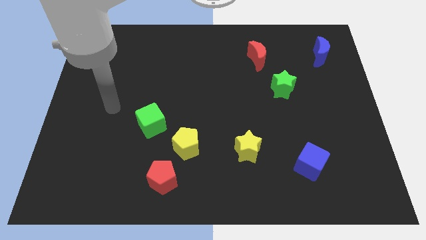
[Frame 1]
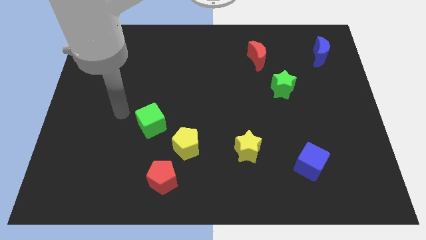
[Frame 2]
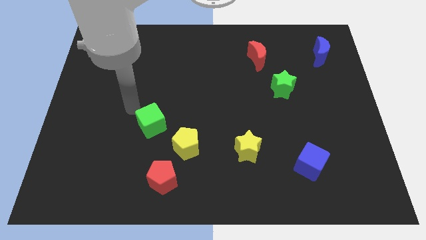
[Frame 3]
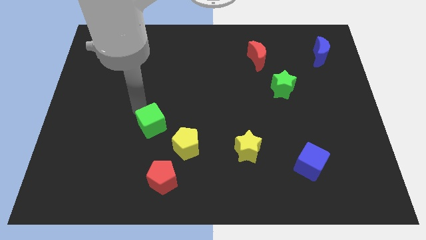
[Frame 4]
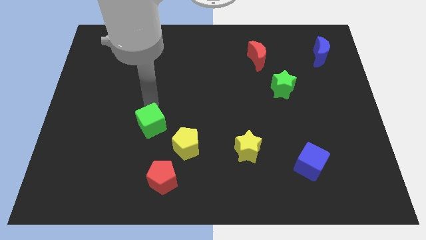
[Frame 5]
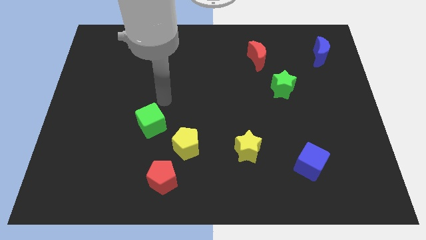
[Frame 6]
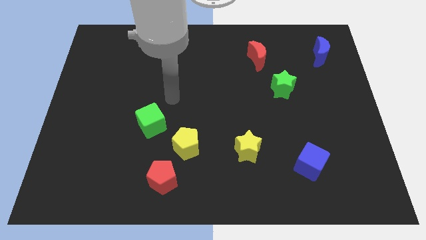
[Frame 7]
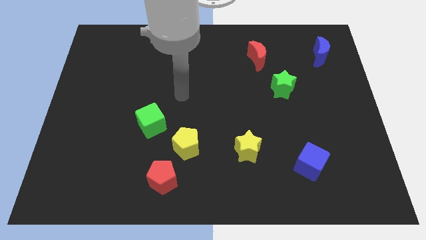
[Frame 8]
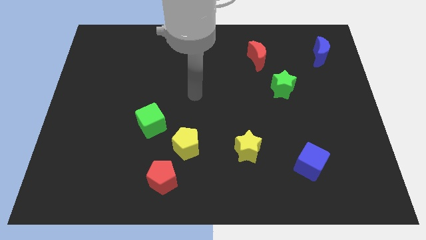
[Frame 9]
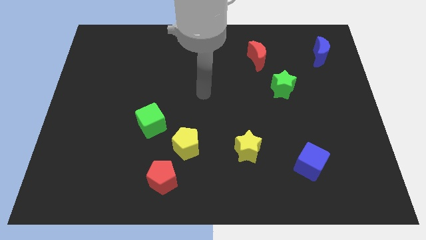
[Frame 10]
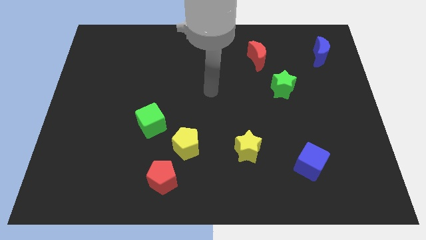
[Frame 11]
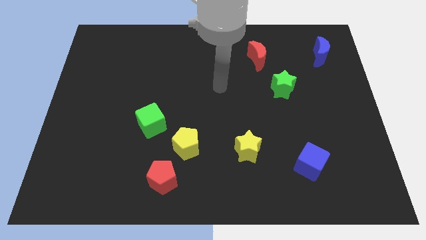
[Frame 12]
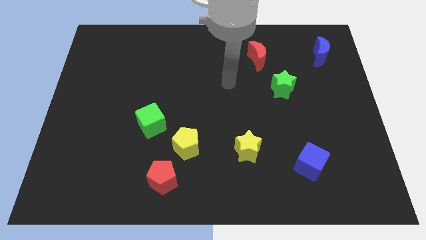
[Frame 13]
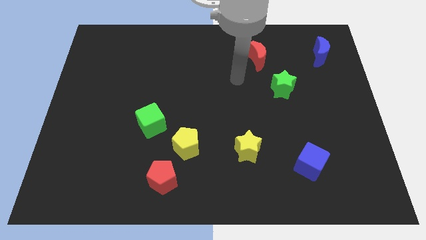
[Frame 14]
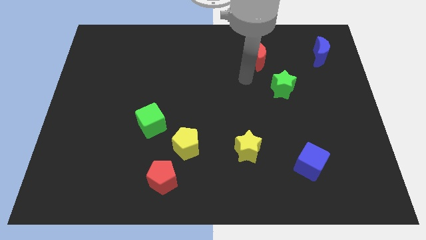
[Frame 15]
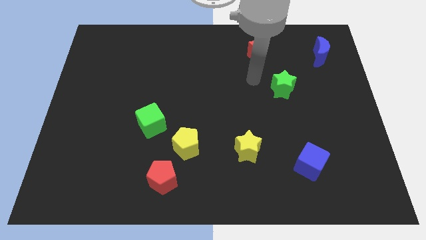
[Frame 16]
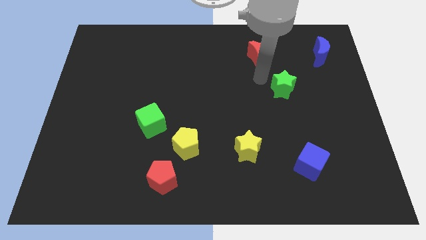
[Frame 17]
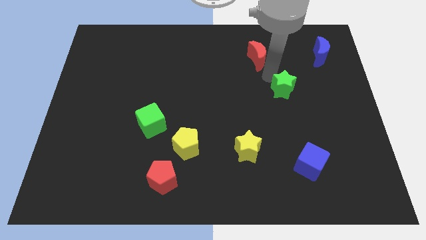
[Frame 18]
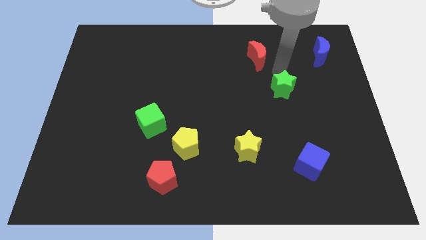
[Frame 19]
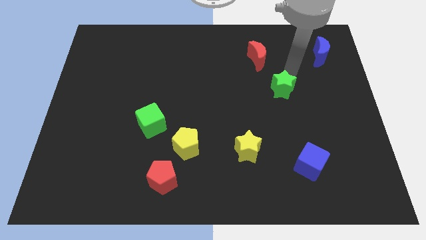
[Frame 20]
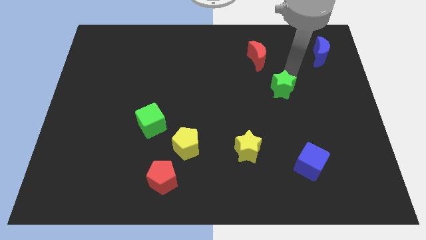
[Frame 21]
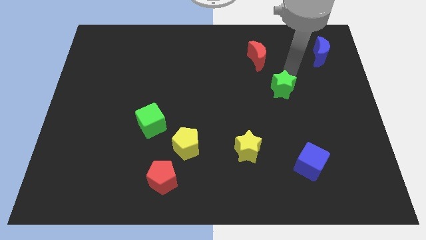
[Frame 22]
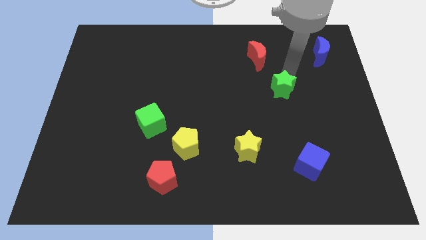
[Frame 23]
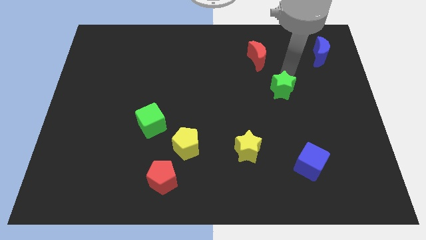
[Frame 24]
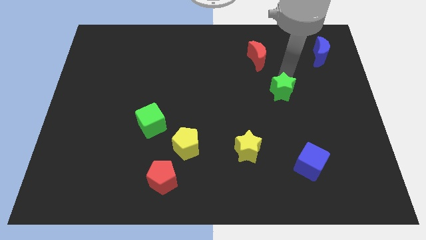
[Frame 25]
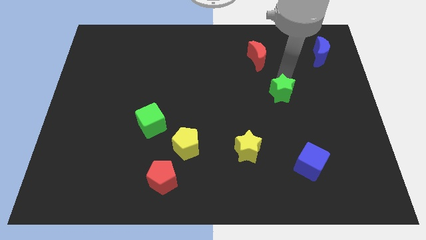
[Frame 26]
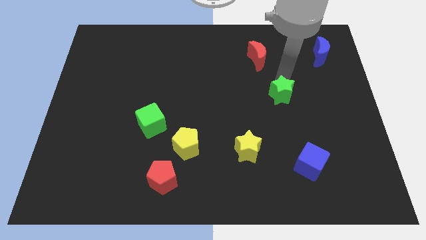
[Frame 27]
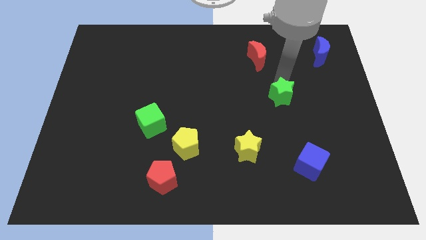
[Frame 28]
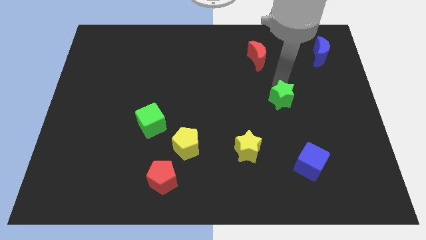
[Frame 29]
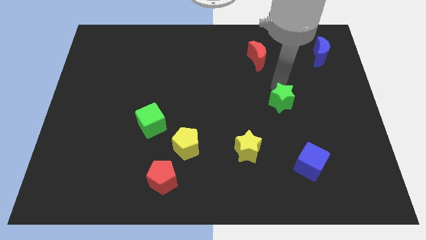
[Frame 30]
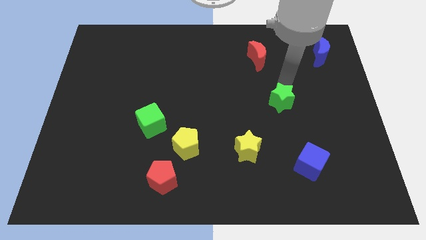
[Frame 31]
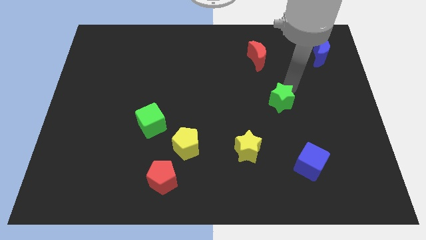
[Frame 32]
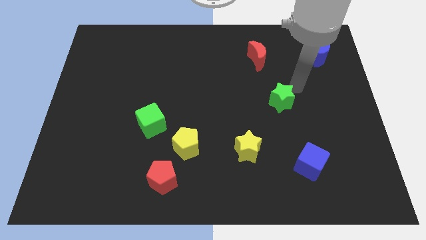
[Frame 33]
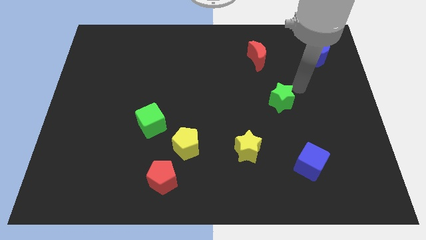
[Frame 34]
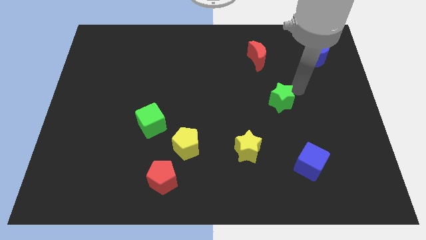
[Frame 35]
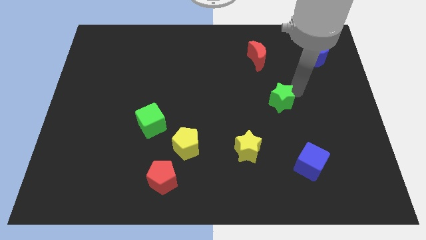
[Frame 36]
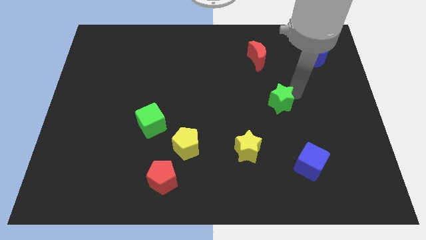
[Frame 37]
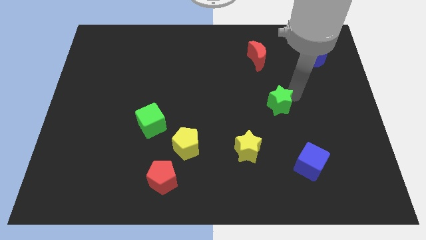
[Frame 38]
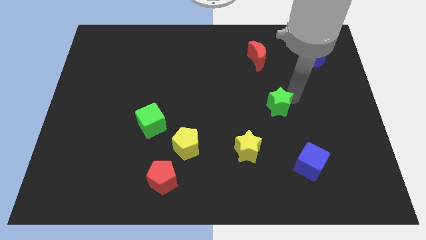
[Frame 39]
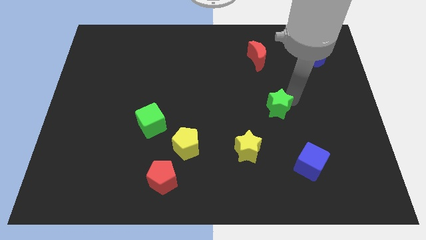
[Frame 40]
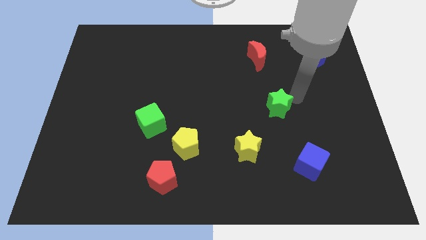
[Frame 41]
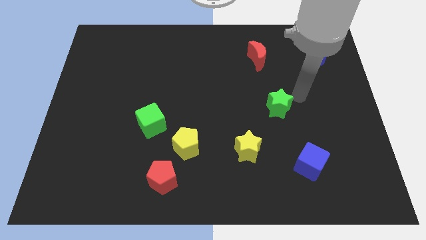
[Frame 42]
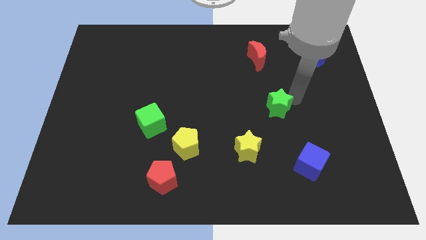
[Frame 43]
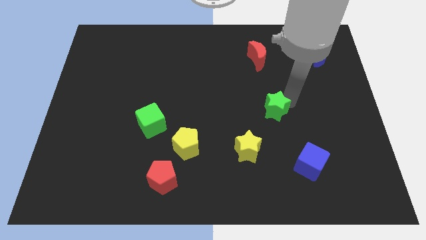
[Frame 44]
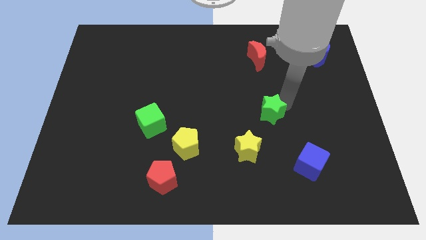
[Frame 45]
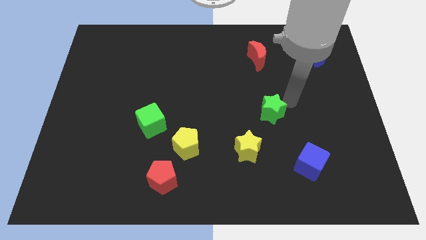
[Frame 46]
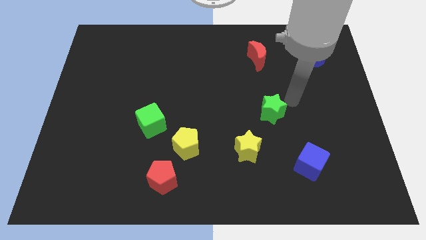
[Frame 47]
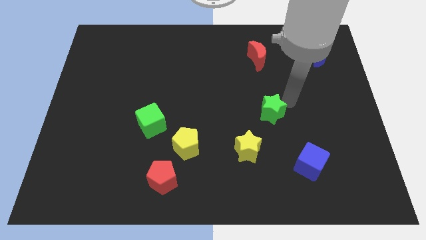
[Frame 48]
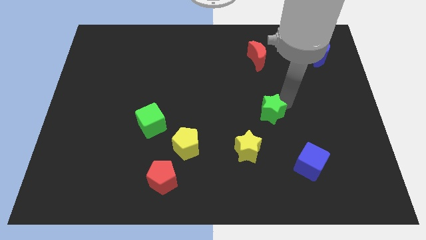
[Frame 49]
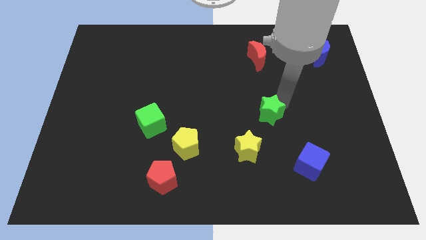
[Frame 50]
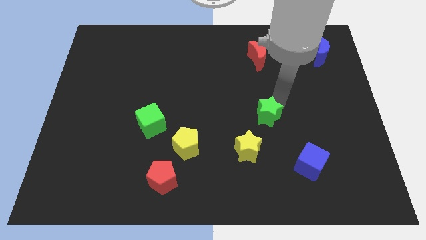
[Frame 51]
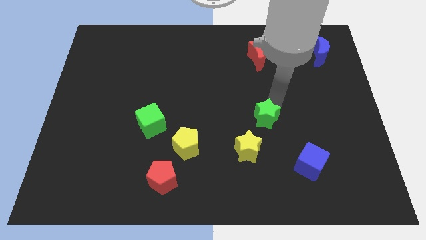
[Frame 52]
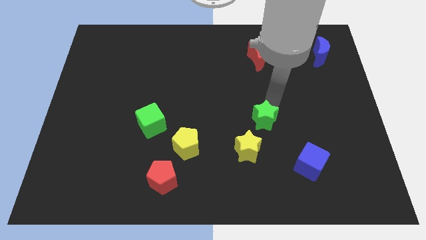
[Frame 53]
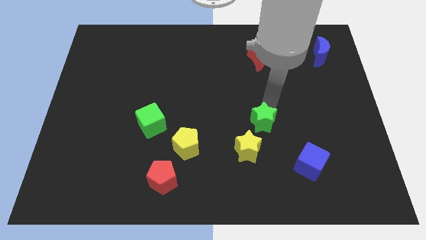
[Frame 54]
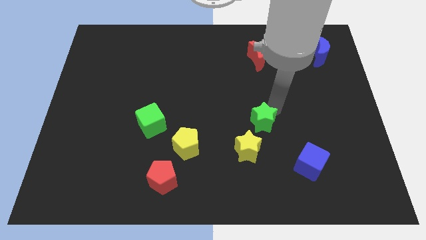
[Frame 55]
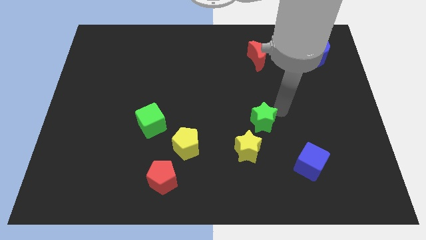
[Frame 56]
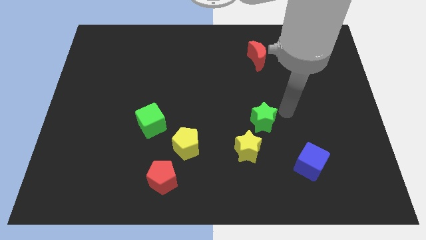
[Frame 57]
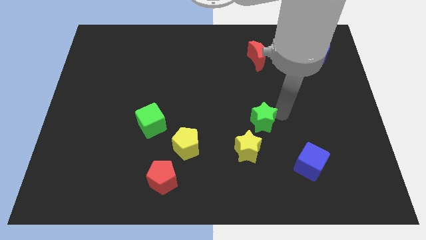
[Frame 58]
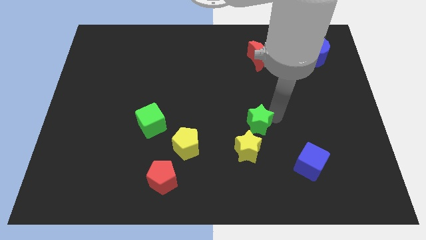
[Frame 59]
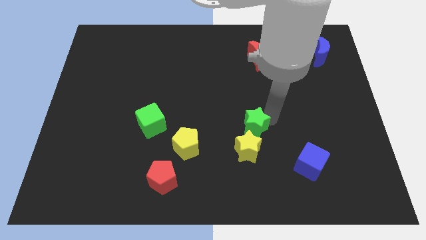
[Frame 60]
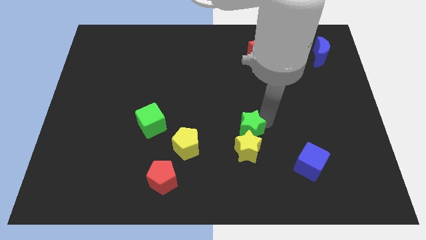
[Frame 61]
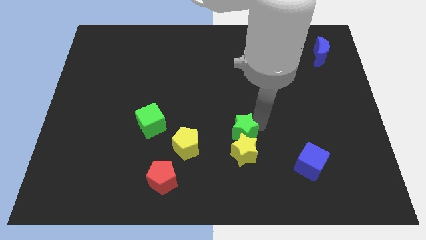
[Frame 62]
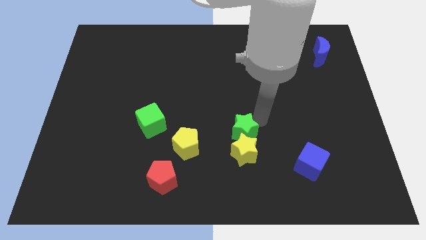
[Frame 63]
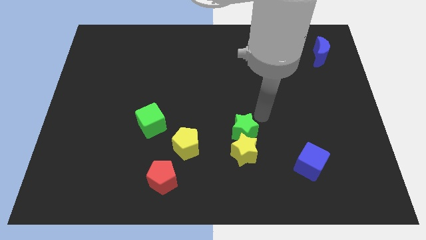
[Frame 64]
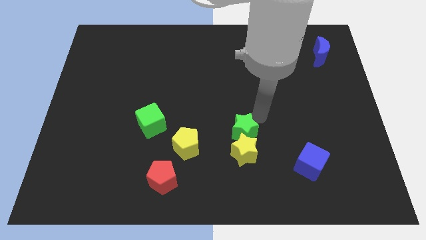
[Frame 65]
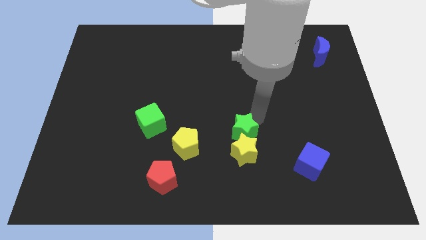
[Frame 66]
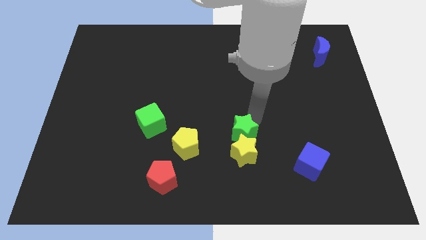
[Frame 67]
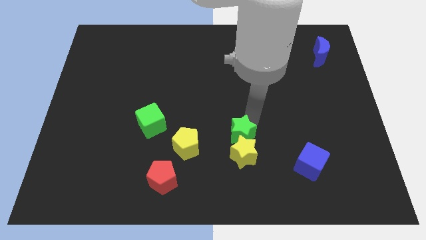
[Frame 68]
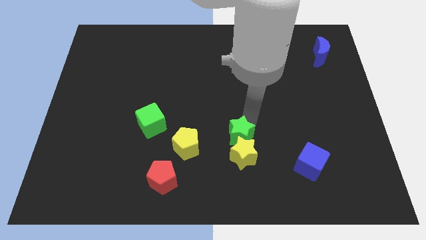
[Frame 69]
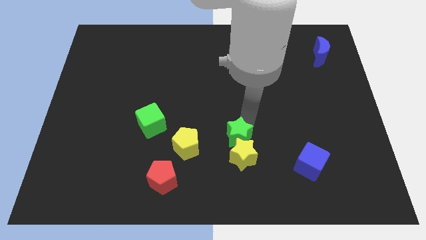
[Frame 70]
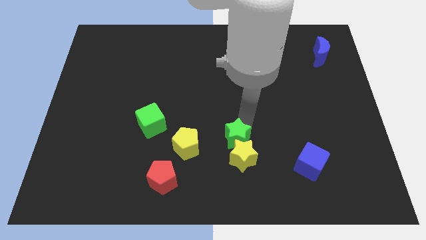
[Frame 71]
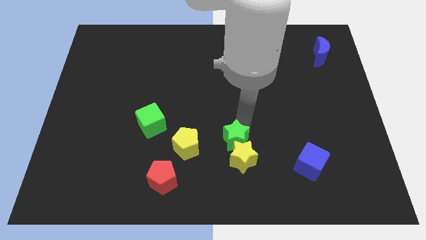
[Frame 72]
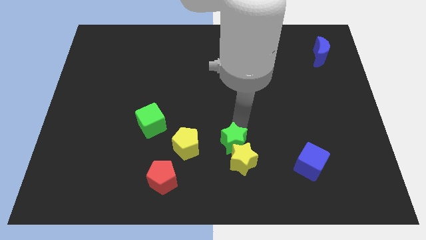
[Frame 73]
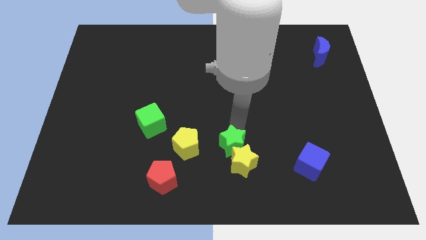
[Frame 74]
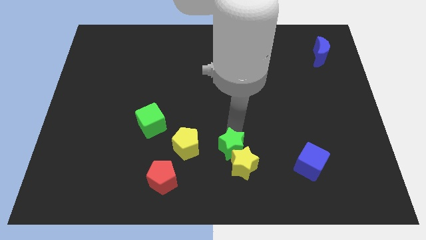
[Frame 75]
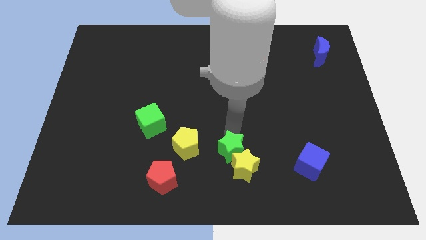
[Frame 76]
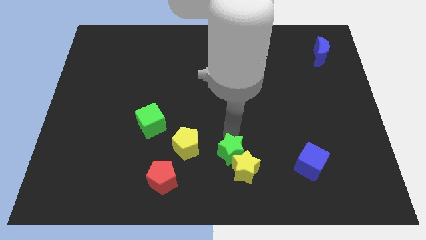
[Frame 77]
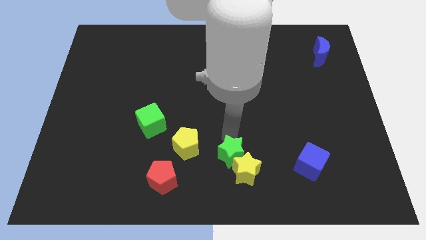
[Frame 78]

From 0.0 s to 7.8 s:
put the green star to the bottom side
